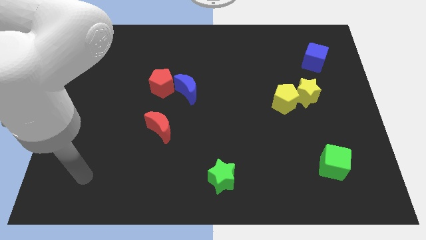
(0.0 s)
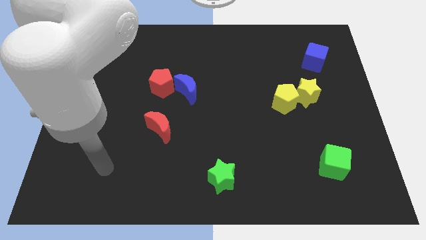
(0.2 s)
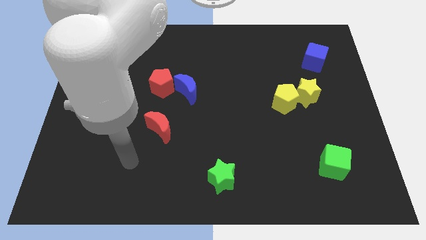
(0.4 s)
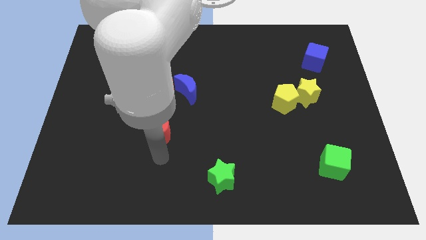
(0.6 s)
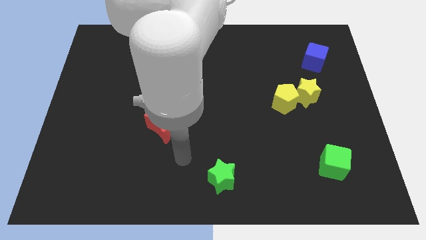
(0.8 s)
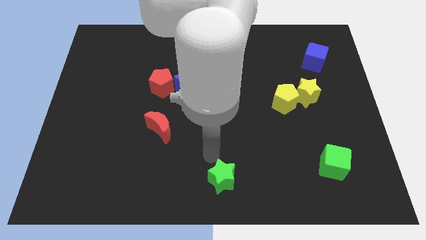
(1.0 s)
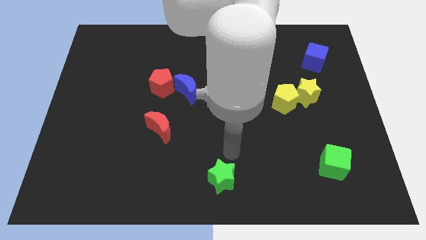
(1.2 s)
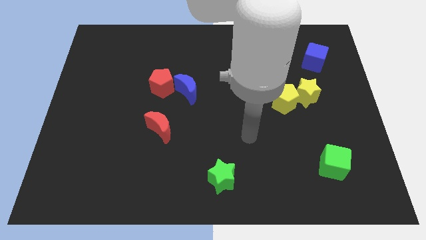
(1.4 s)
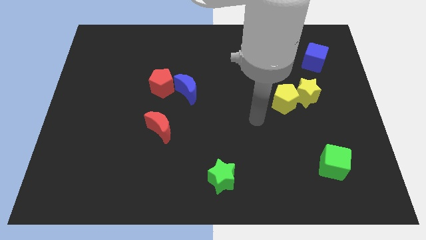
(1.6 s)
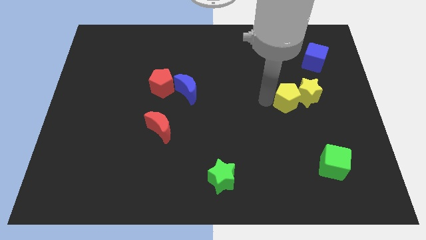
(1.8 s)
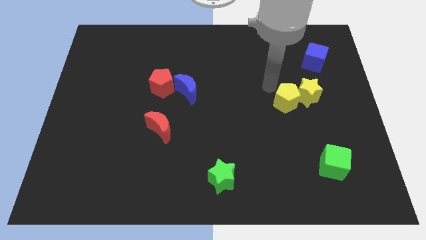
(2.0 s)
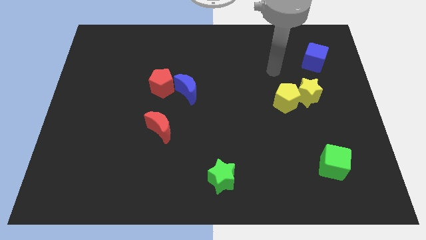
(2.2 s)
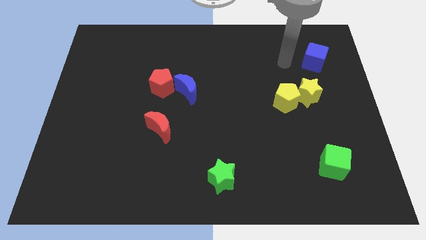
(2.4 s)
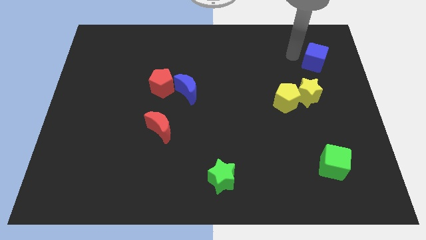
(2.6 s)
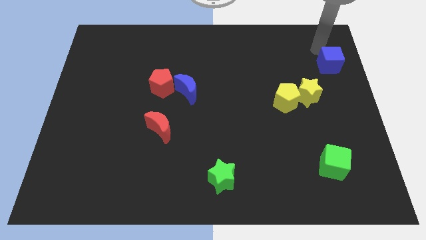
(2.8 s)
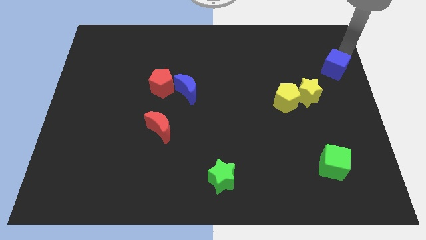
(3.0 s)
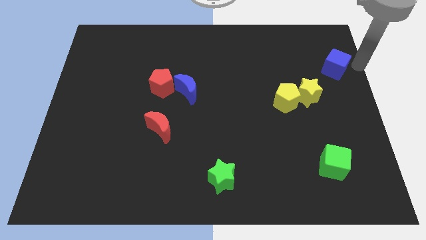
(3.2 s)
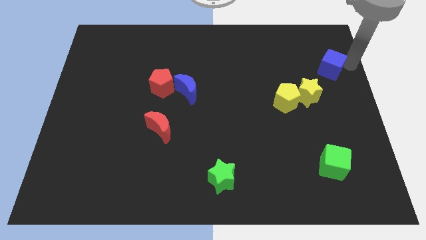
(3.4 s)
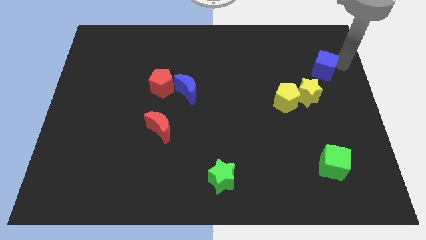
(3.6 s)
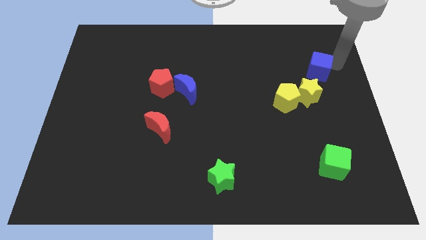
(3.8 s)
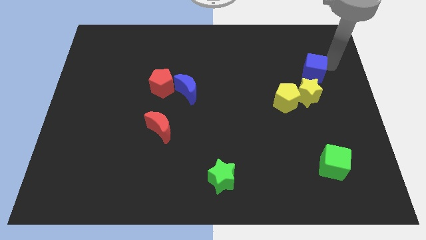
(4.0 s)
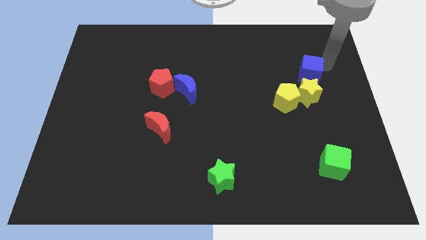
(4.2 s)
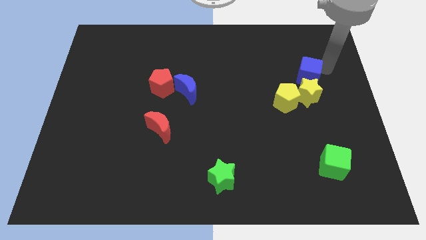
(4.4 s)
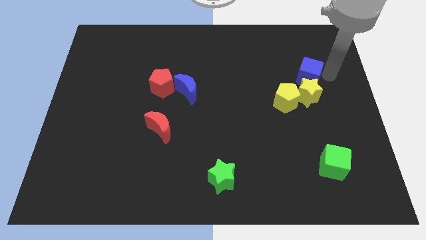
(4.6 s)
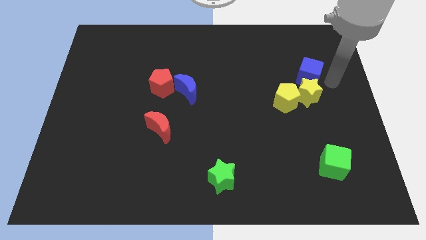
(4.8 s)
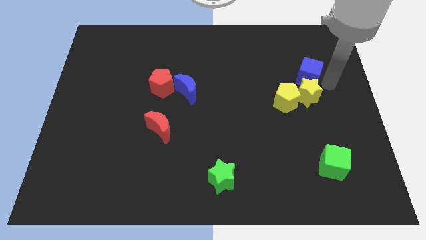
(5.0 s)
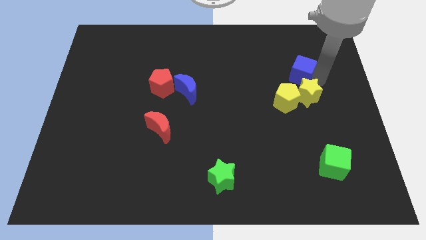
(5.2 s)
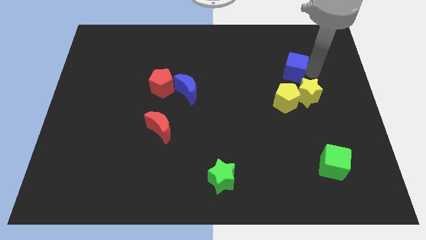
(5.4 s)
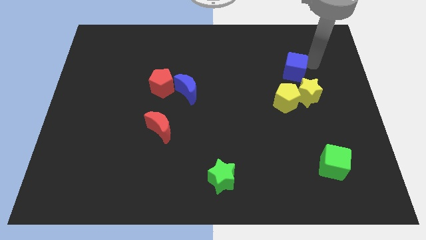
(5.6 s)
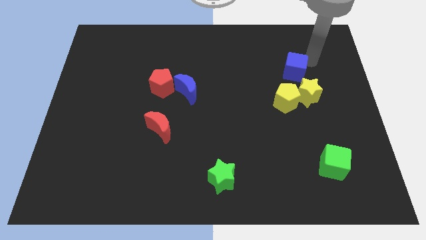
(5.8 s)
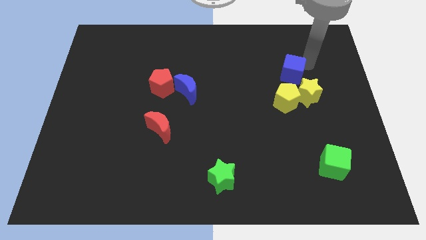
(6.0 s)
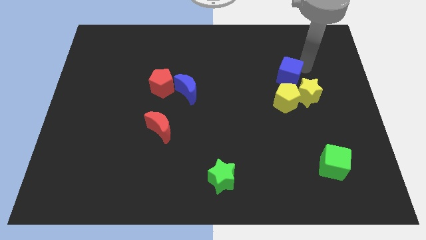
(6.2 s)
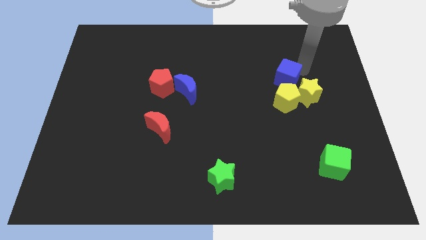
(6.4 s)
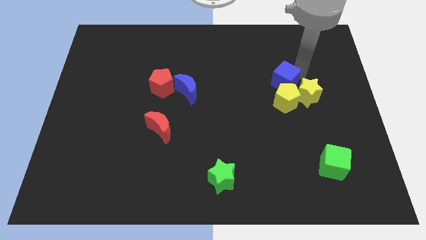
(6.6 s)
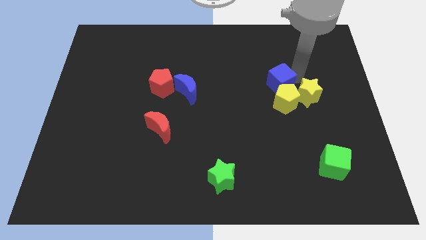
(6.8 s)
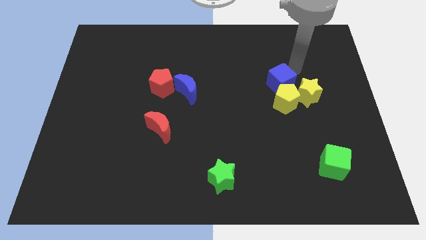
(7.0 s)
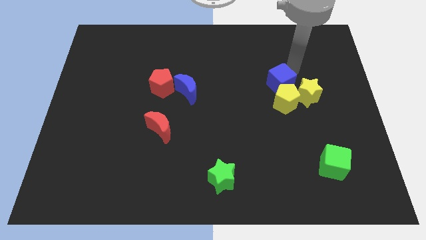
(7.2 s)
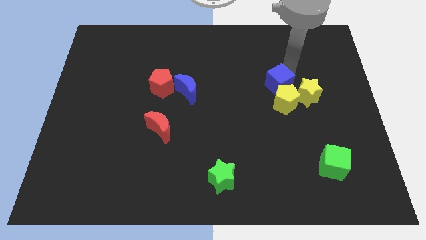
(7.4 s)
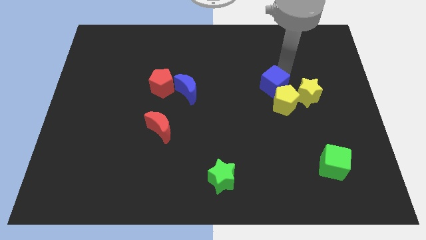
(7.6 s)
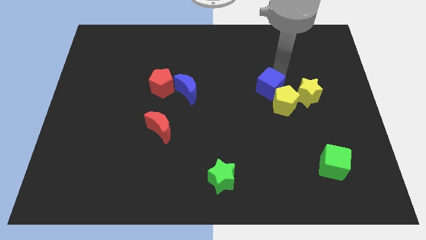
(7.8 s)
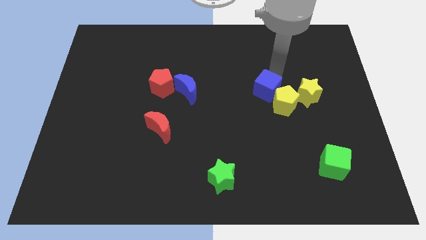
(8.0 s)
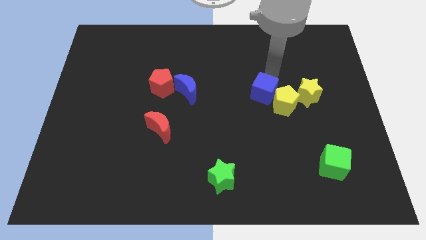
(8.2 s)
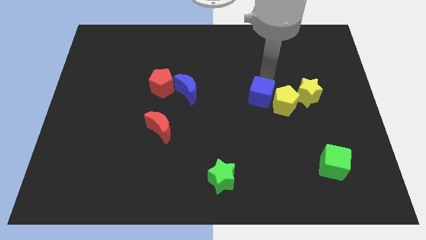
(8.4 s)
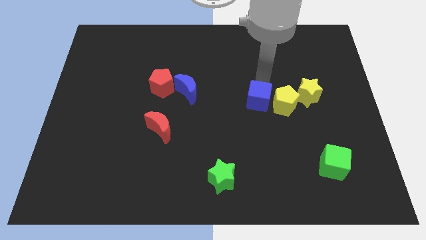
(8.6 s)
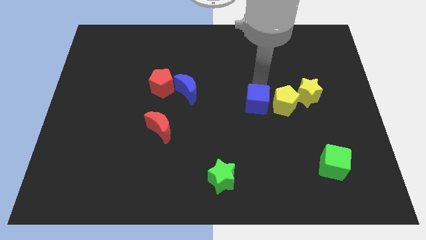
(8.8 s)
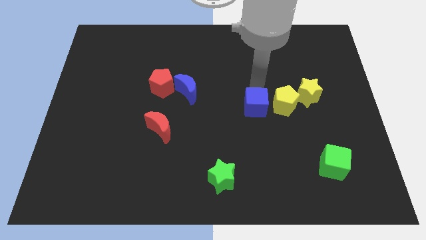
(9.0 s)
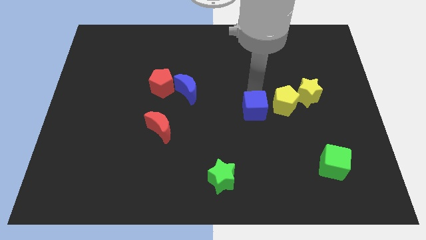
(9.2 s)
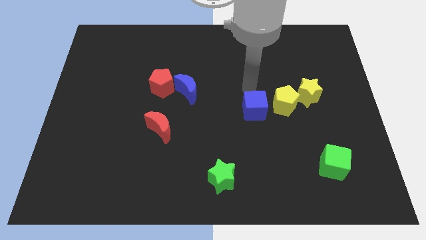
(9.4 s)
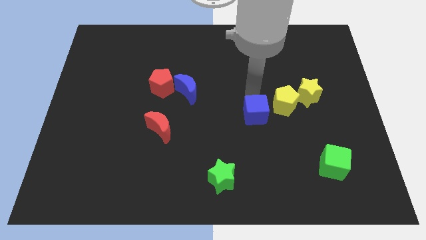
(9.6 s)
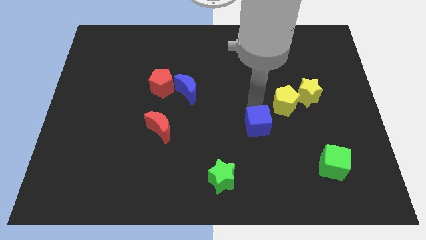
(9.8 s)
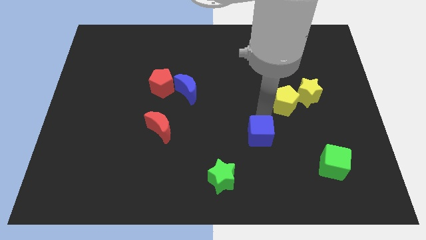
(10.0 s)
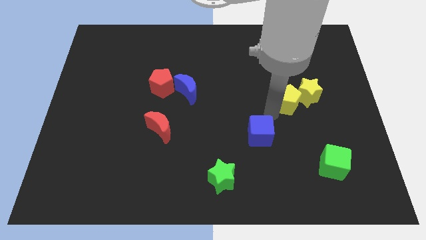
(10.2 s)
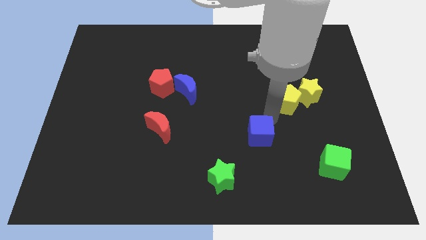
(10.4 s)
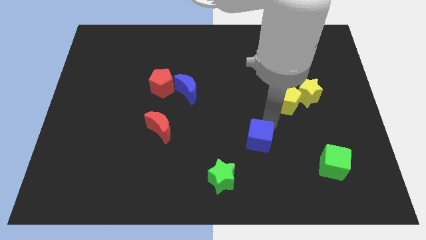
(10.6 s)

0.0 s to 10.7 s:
move the blue cube to the top right side of the green star
